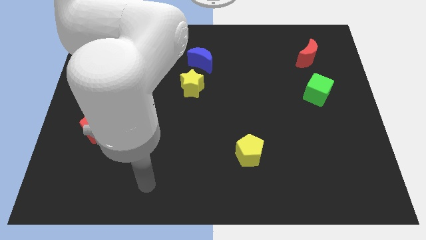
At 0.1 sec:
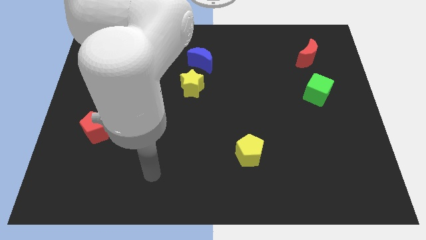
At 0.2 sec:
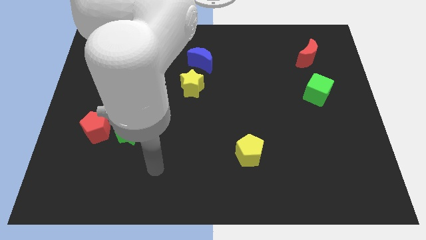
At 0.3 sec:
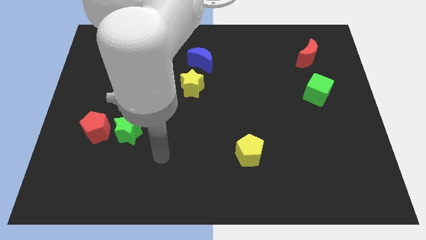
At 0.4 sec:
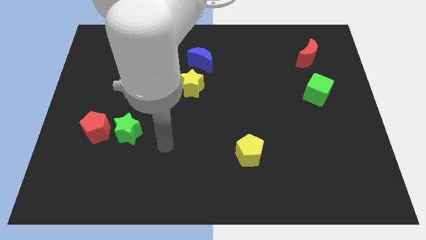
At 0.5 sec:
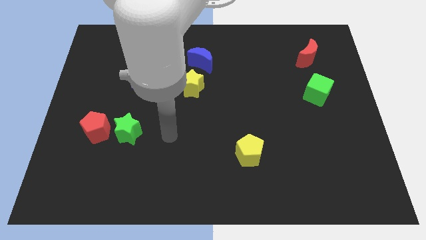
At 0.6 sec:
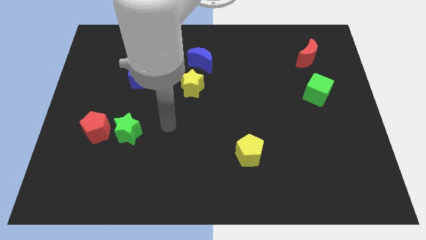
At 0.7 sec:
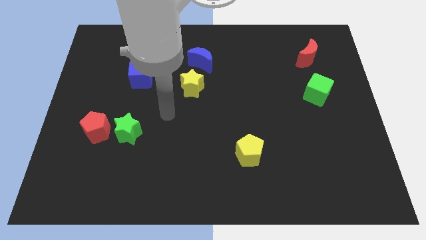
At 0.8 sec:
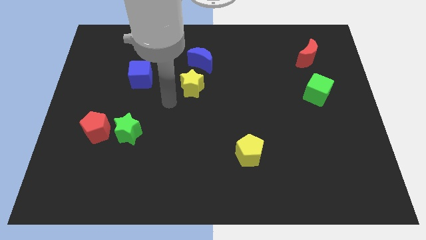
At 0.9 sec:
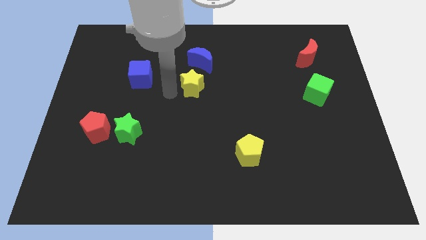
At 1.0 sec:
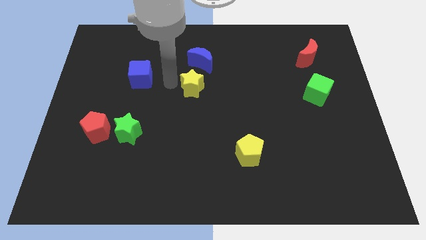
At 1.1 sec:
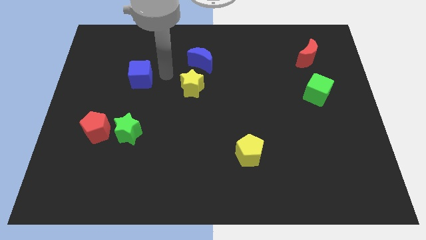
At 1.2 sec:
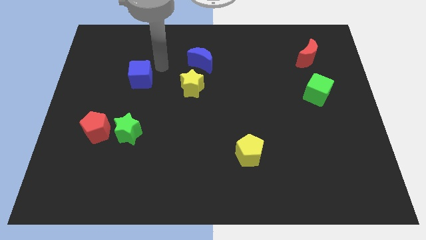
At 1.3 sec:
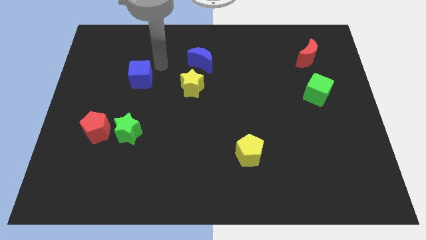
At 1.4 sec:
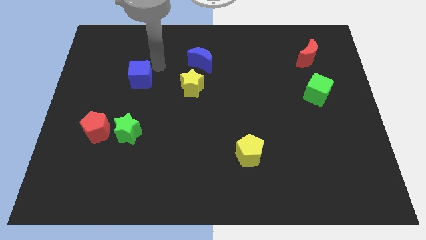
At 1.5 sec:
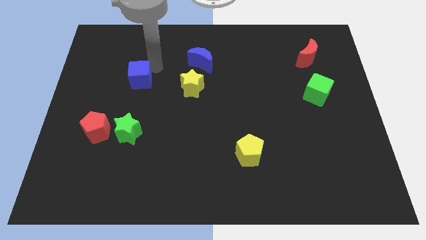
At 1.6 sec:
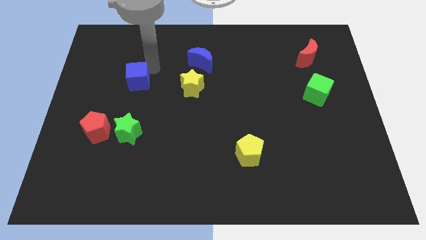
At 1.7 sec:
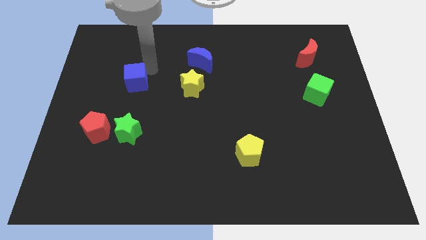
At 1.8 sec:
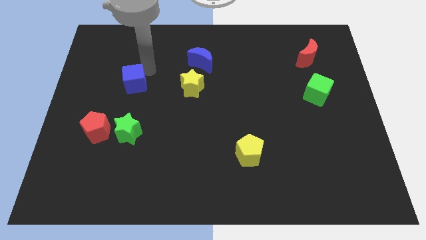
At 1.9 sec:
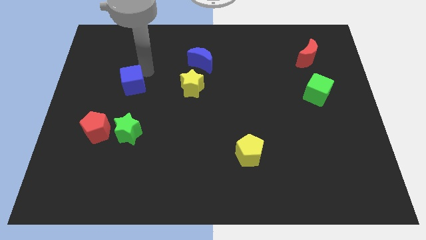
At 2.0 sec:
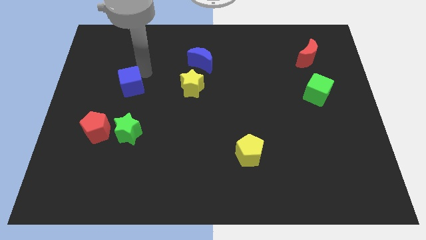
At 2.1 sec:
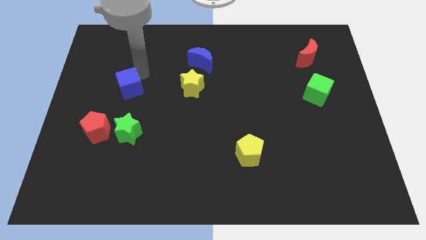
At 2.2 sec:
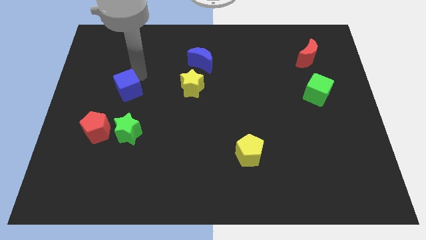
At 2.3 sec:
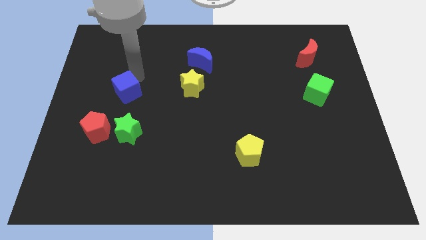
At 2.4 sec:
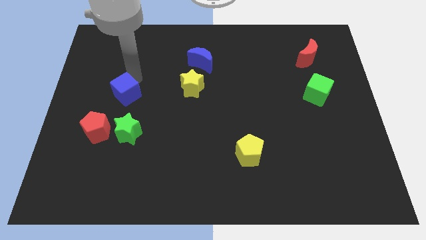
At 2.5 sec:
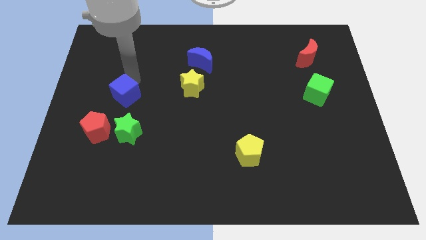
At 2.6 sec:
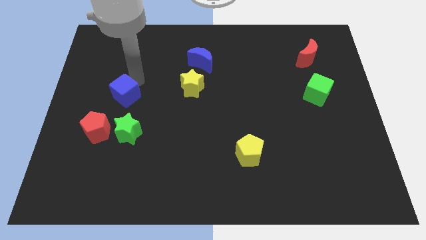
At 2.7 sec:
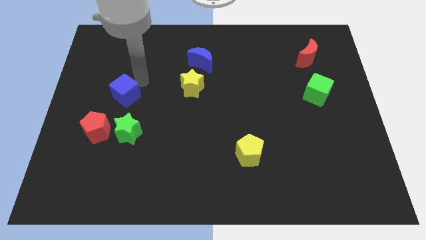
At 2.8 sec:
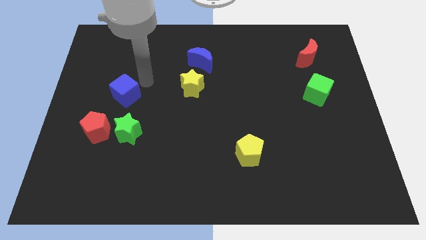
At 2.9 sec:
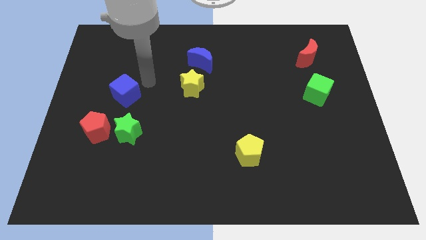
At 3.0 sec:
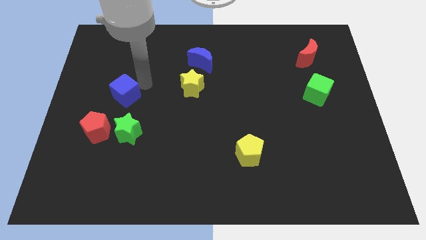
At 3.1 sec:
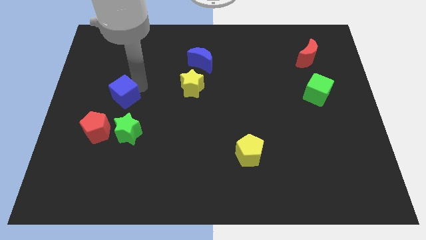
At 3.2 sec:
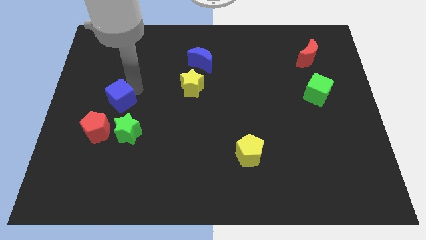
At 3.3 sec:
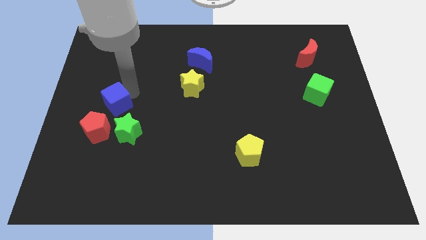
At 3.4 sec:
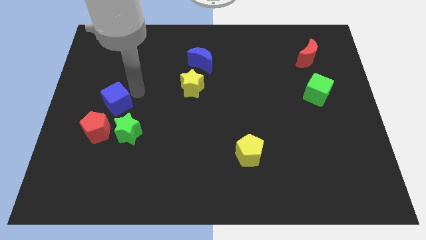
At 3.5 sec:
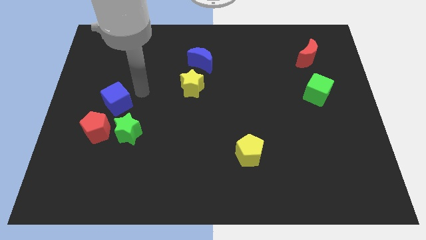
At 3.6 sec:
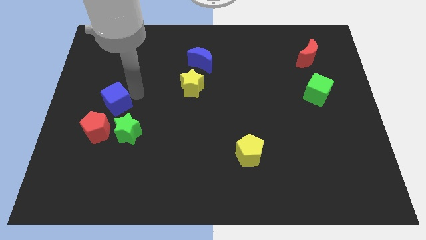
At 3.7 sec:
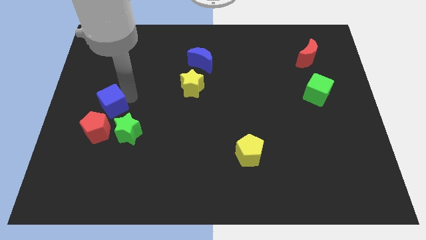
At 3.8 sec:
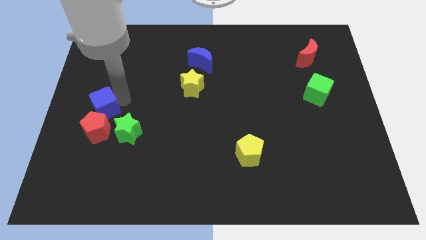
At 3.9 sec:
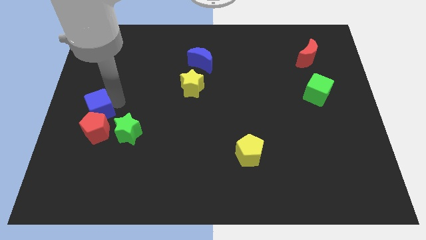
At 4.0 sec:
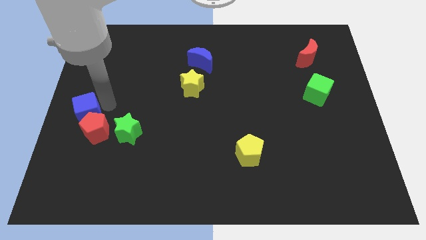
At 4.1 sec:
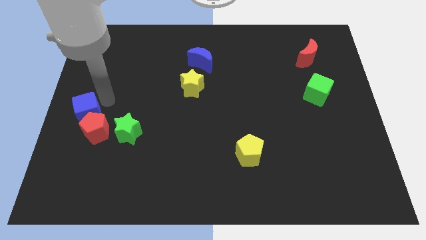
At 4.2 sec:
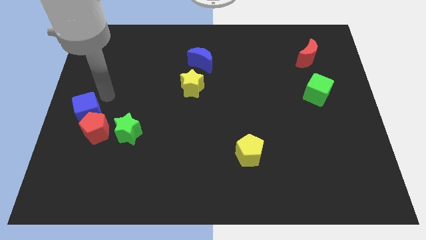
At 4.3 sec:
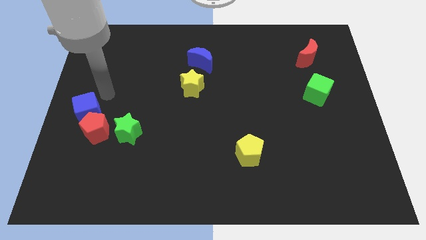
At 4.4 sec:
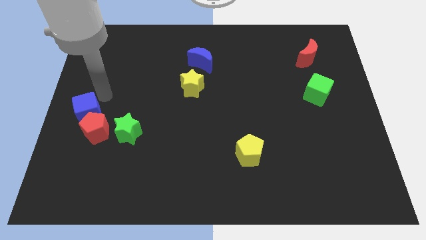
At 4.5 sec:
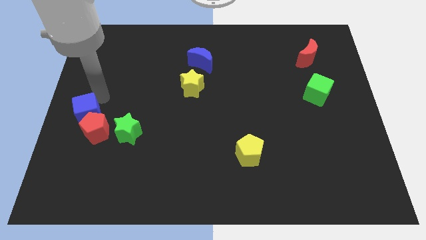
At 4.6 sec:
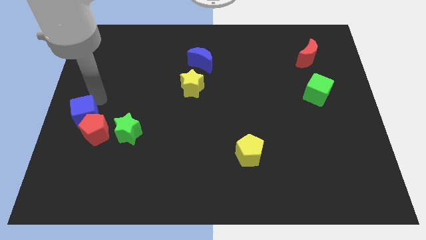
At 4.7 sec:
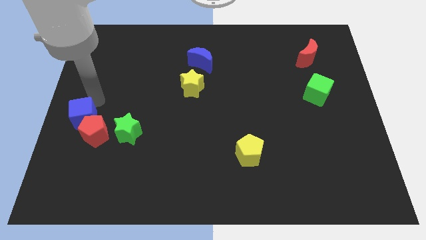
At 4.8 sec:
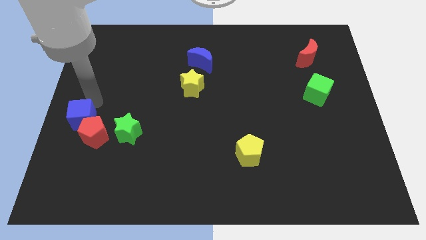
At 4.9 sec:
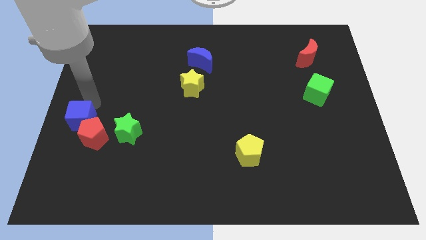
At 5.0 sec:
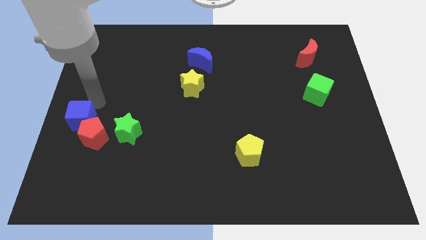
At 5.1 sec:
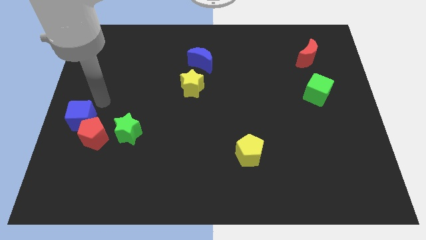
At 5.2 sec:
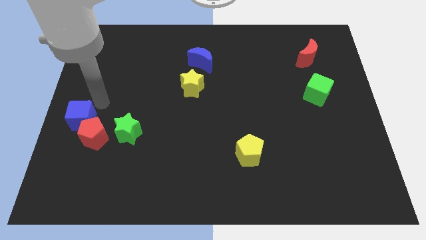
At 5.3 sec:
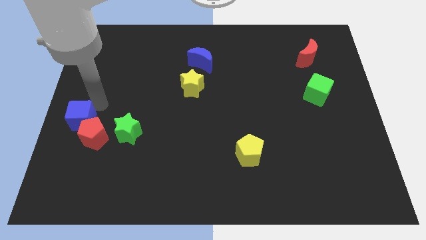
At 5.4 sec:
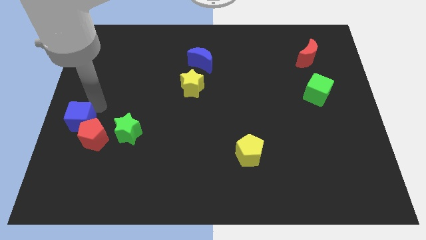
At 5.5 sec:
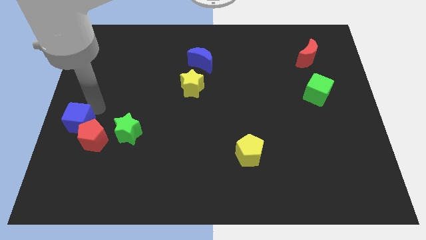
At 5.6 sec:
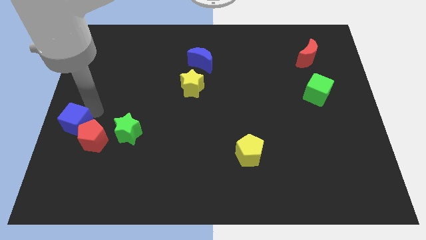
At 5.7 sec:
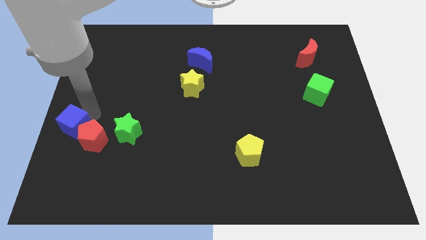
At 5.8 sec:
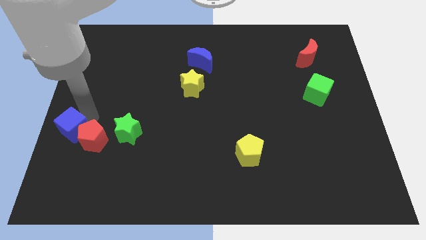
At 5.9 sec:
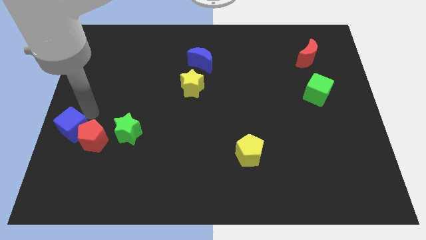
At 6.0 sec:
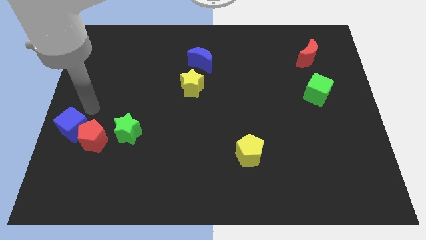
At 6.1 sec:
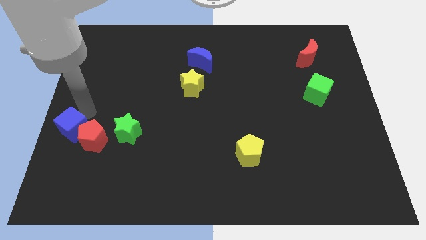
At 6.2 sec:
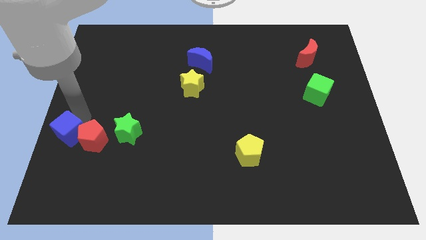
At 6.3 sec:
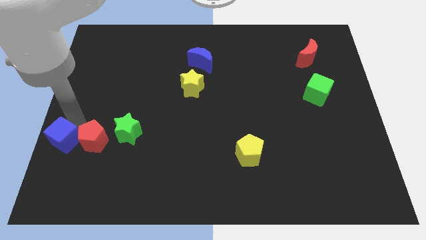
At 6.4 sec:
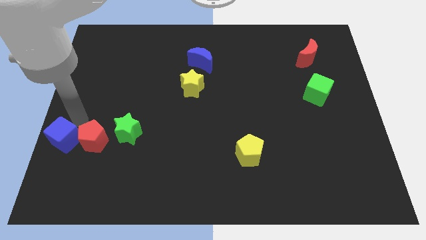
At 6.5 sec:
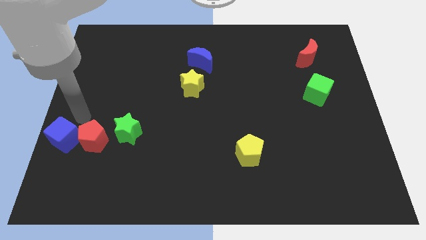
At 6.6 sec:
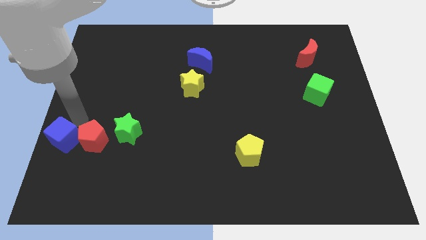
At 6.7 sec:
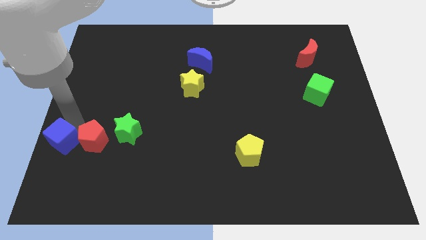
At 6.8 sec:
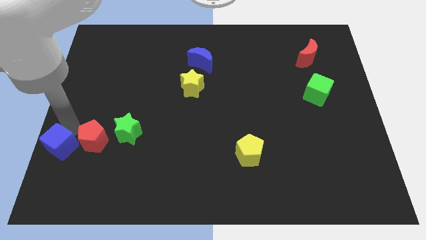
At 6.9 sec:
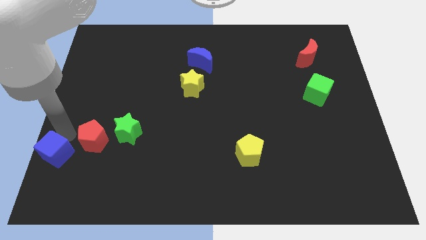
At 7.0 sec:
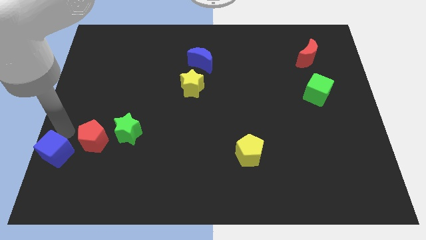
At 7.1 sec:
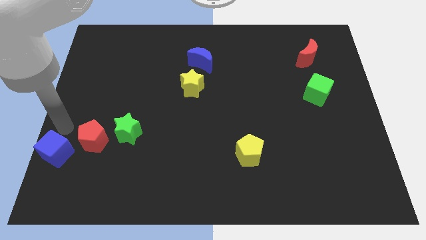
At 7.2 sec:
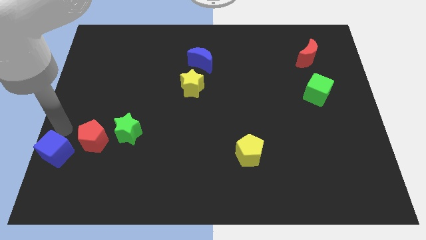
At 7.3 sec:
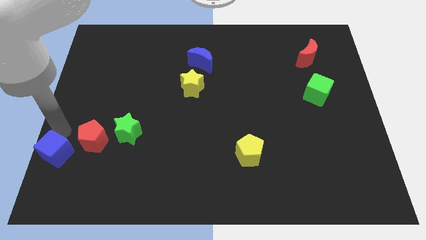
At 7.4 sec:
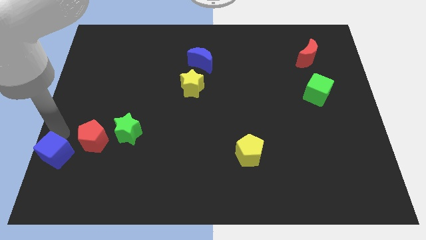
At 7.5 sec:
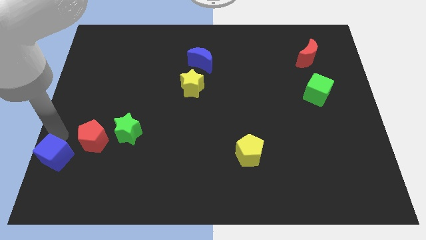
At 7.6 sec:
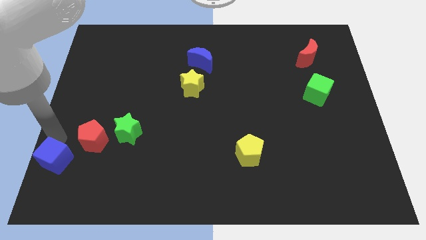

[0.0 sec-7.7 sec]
move the blue cube to the bottom left
